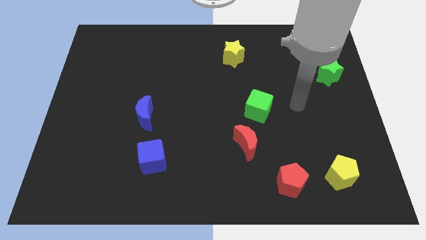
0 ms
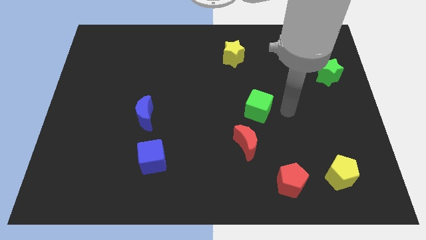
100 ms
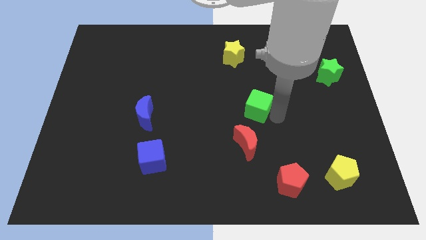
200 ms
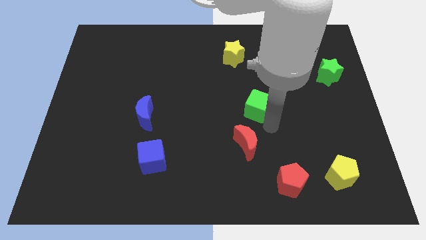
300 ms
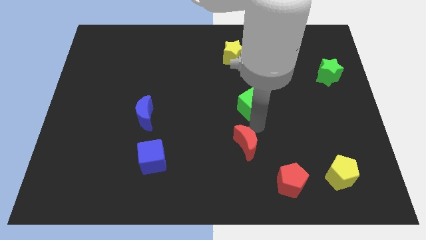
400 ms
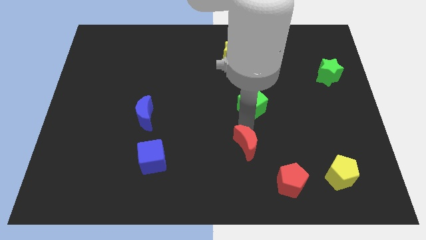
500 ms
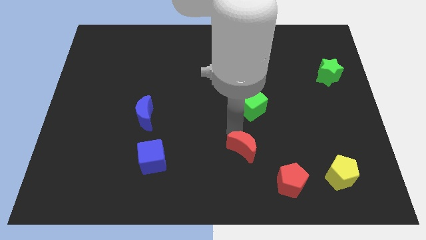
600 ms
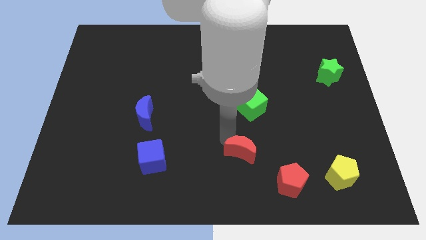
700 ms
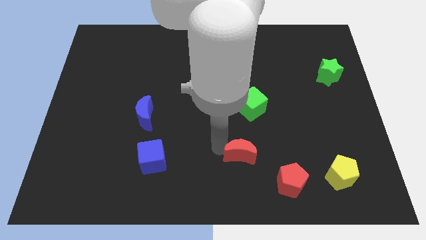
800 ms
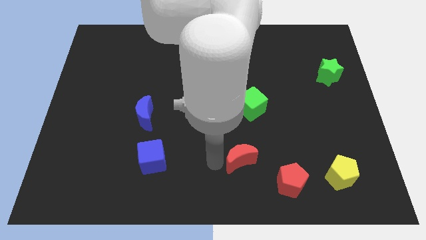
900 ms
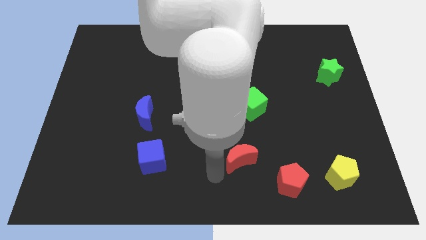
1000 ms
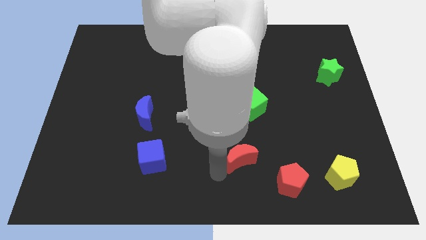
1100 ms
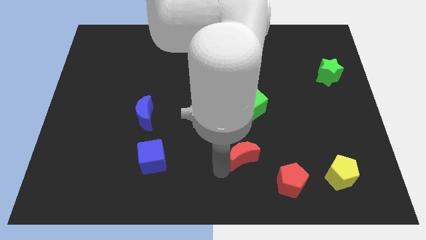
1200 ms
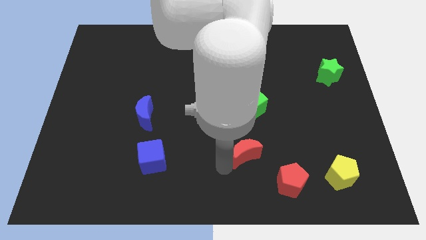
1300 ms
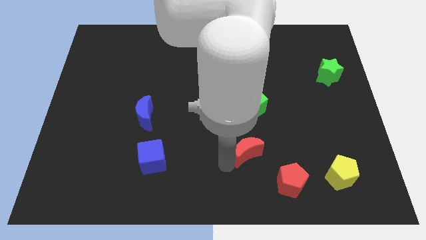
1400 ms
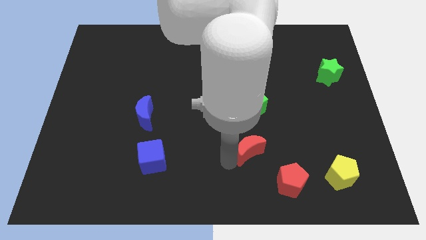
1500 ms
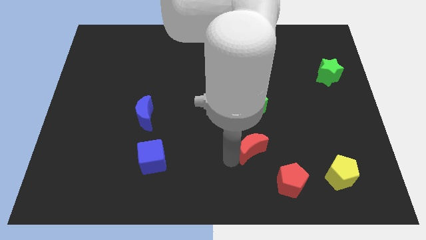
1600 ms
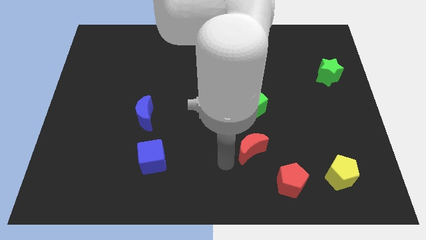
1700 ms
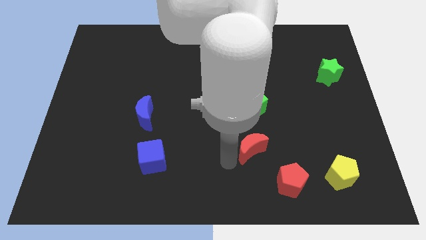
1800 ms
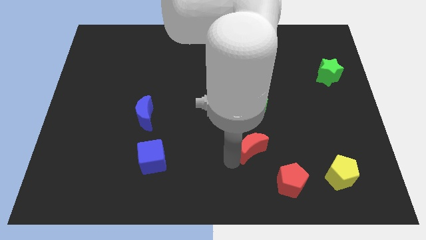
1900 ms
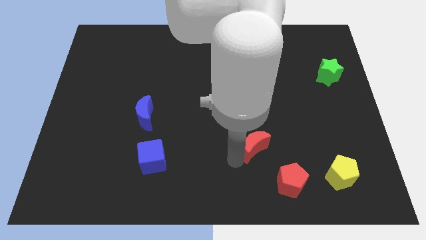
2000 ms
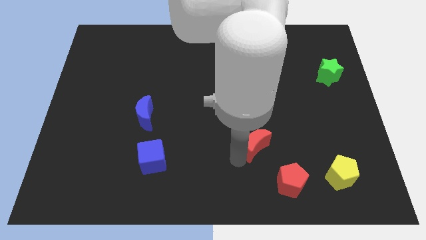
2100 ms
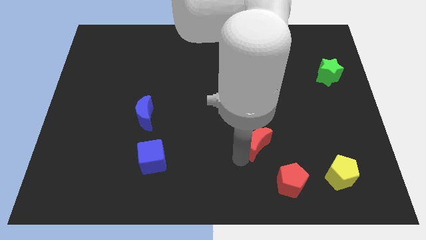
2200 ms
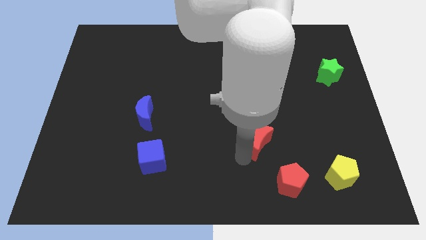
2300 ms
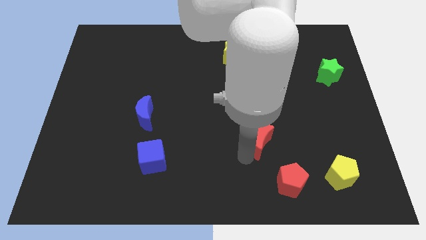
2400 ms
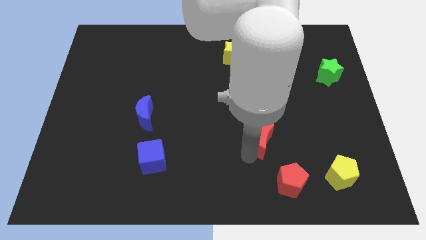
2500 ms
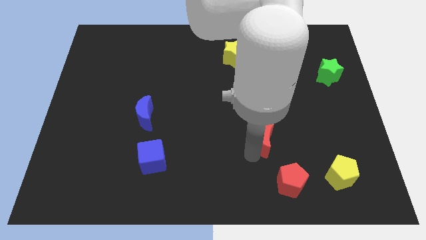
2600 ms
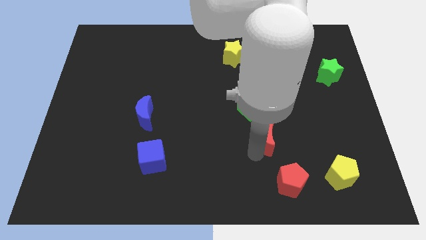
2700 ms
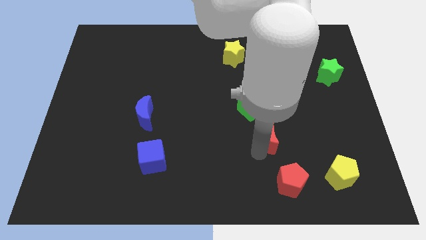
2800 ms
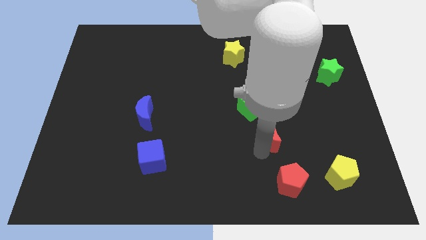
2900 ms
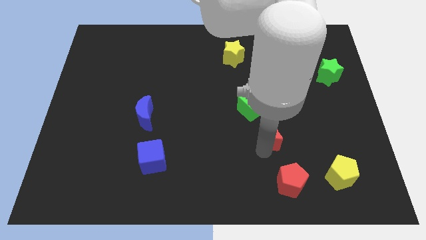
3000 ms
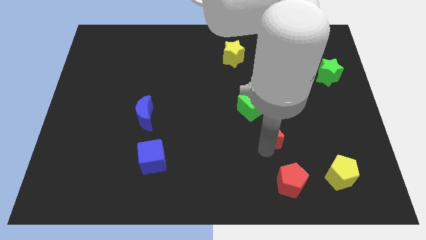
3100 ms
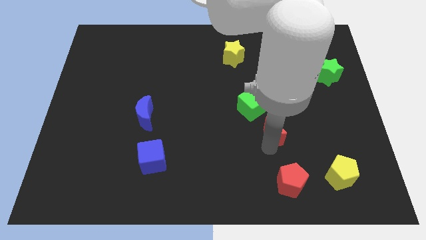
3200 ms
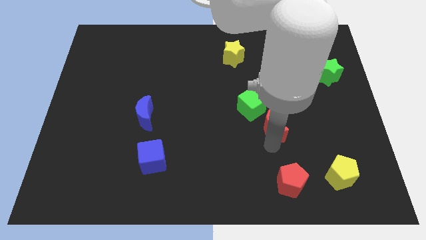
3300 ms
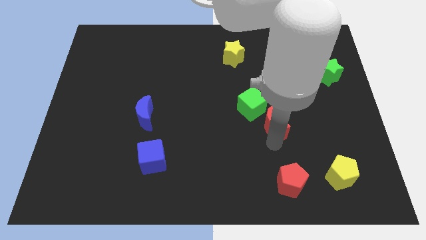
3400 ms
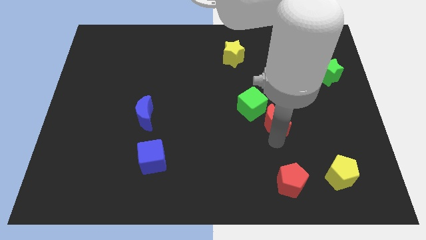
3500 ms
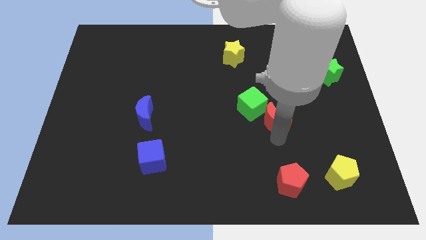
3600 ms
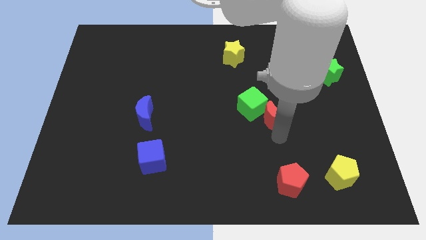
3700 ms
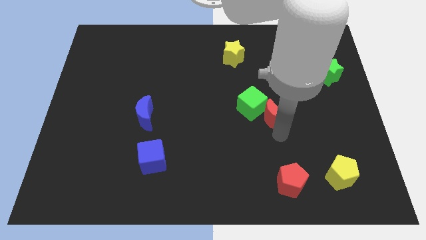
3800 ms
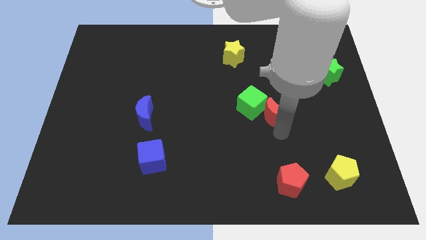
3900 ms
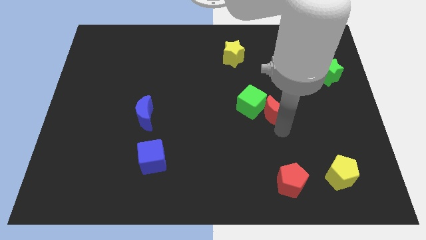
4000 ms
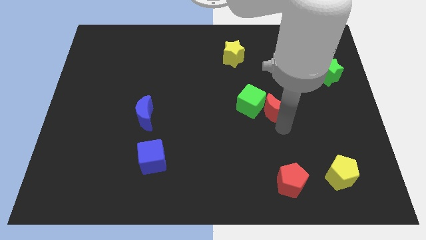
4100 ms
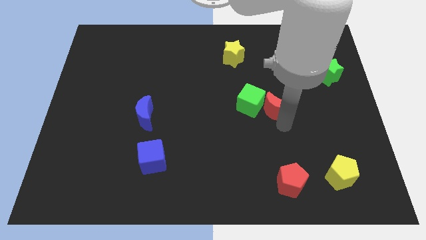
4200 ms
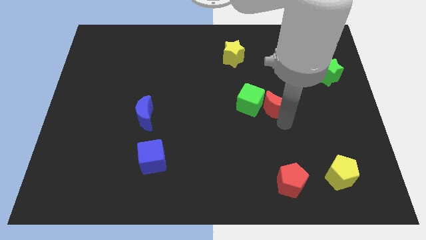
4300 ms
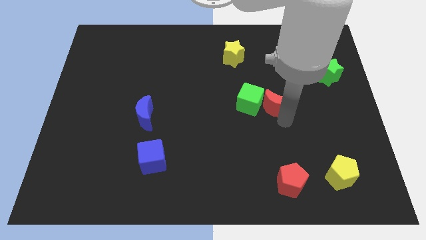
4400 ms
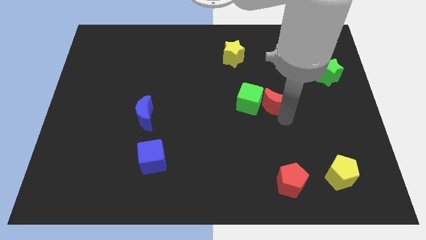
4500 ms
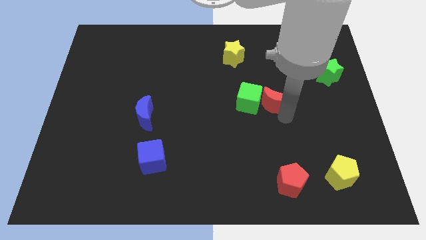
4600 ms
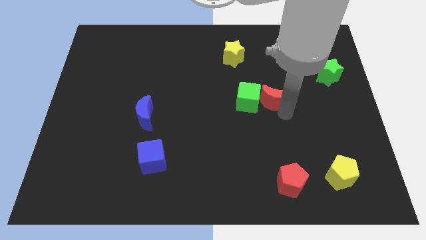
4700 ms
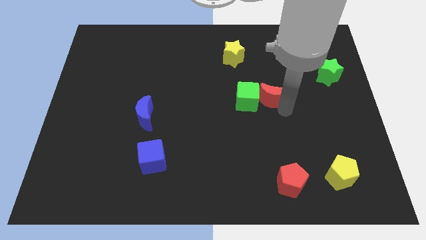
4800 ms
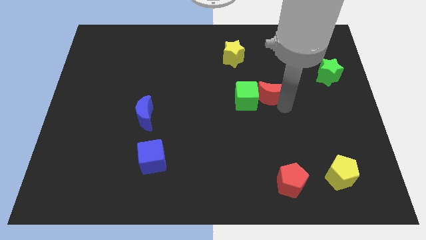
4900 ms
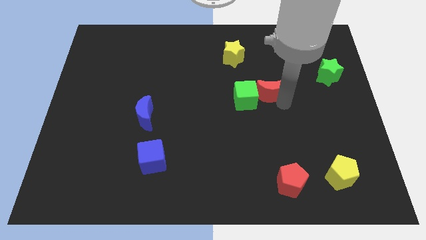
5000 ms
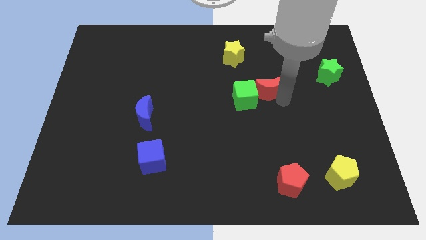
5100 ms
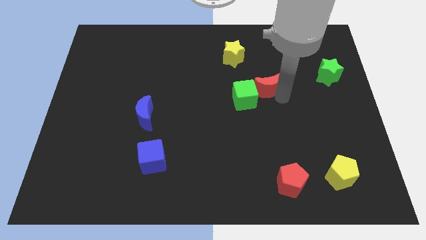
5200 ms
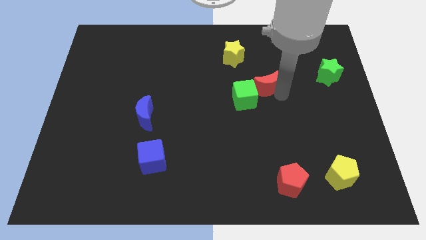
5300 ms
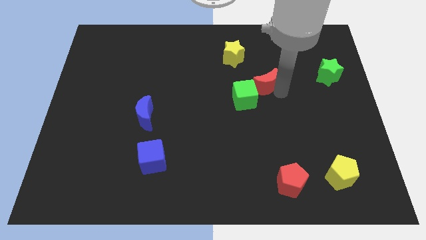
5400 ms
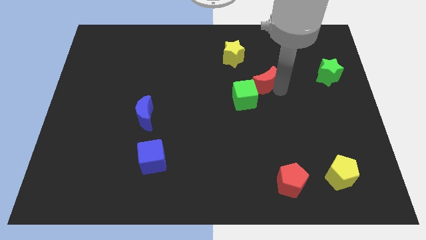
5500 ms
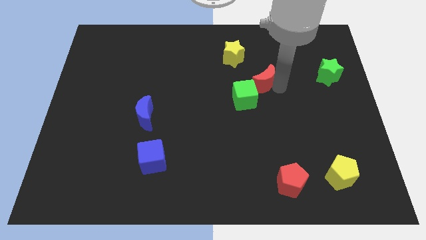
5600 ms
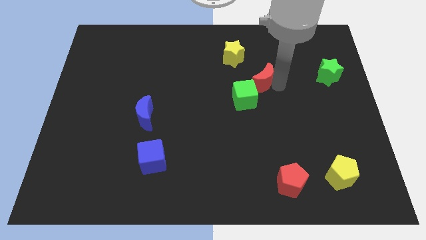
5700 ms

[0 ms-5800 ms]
put the red moon above the green cube

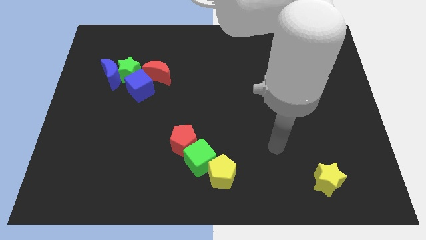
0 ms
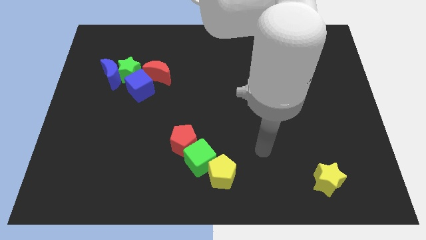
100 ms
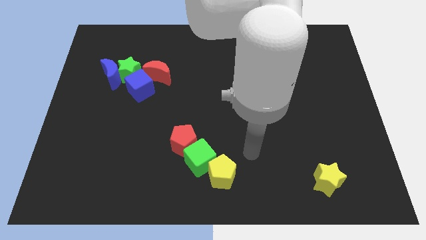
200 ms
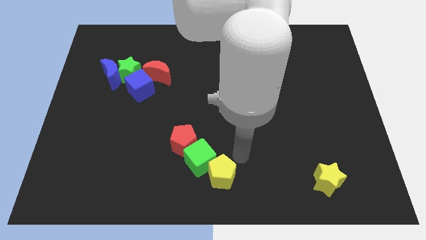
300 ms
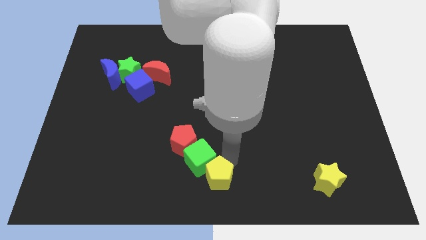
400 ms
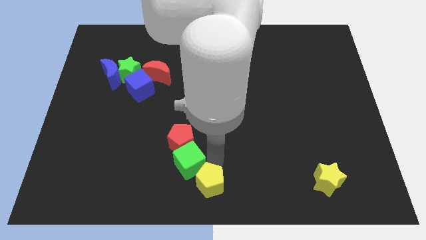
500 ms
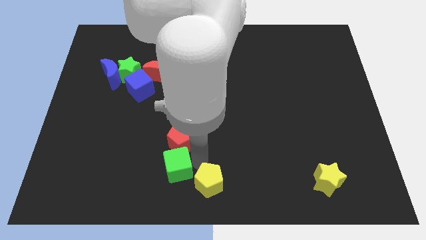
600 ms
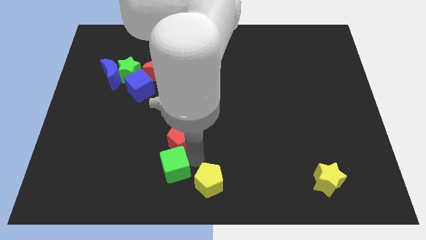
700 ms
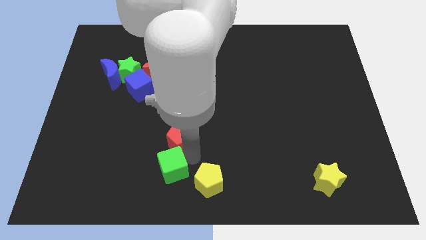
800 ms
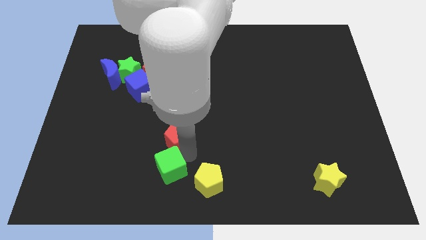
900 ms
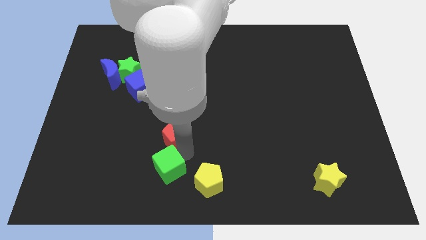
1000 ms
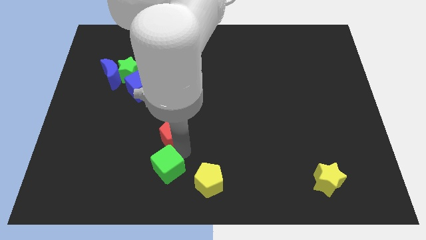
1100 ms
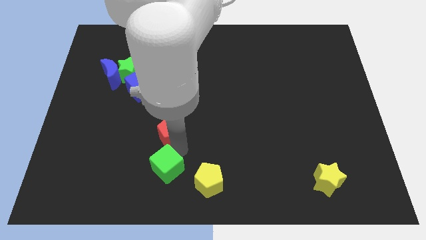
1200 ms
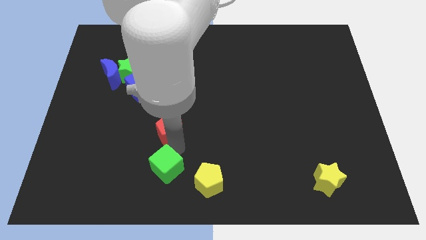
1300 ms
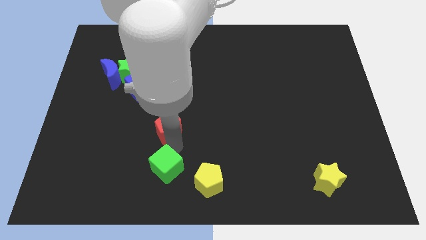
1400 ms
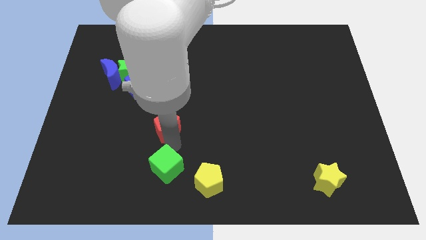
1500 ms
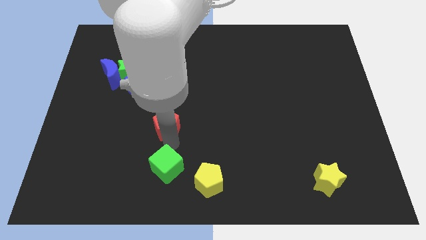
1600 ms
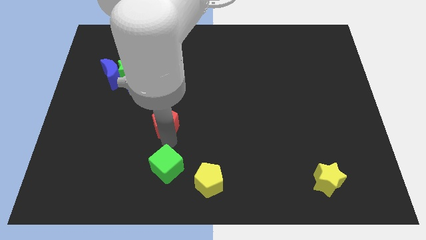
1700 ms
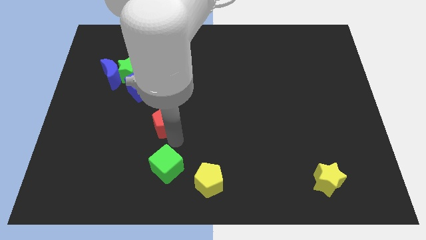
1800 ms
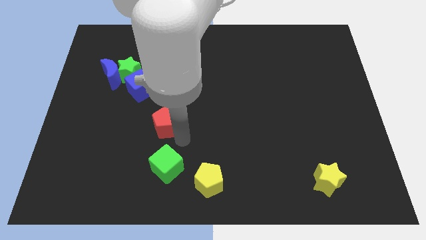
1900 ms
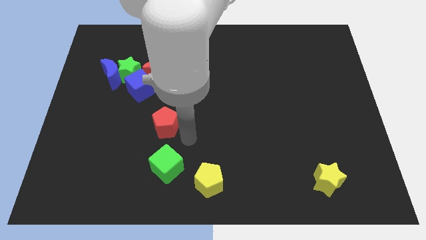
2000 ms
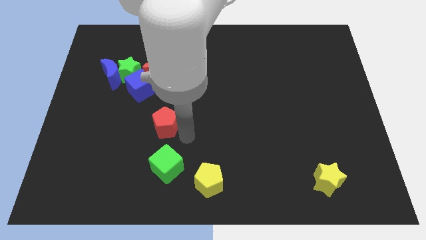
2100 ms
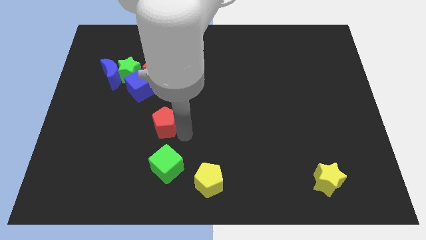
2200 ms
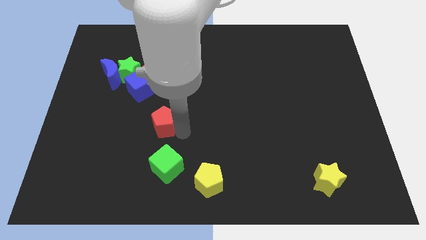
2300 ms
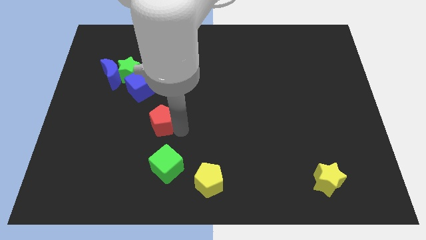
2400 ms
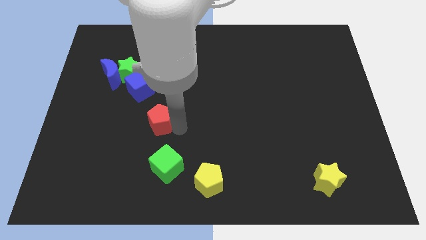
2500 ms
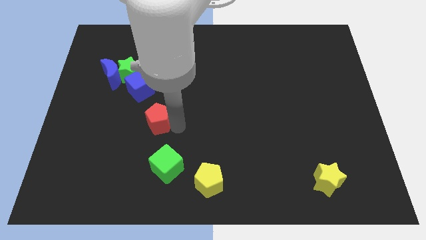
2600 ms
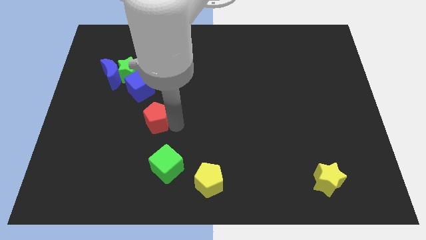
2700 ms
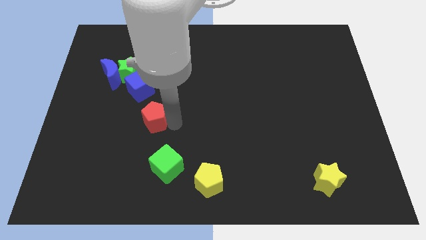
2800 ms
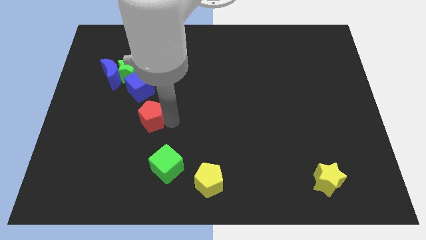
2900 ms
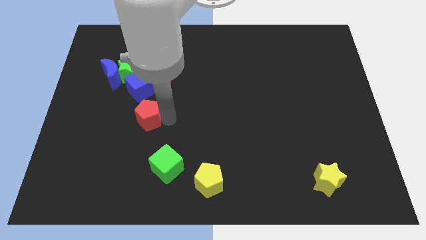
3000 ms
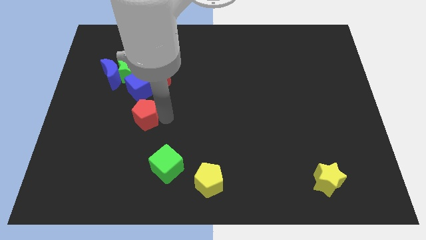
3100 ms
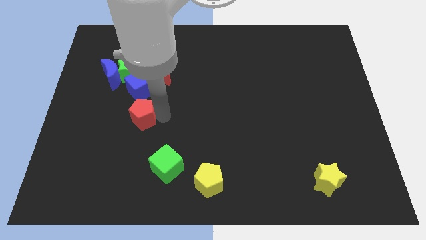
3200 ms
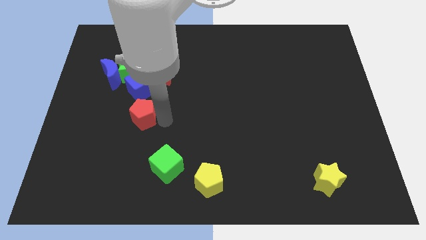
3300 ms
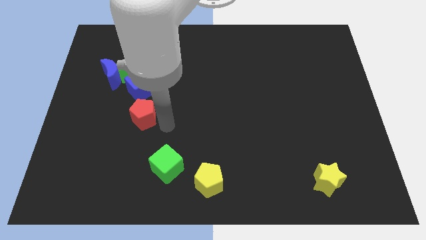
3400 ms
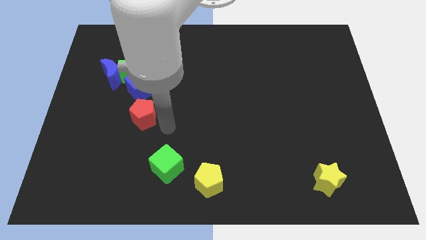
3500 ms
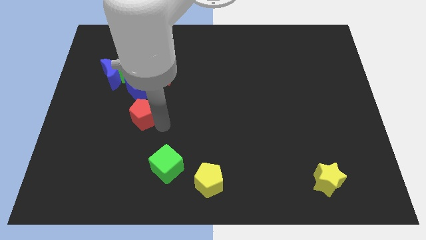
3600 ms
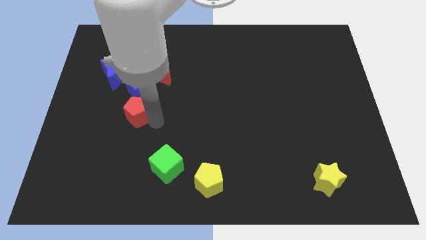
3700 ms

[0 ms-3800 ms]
push the red pentagon to the bottom side of the green star
